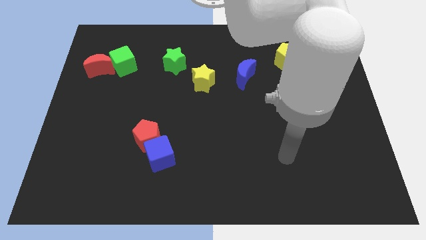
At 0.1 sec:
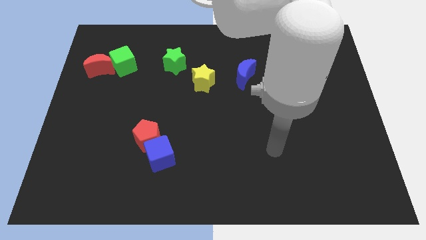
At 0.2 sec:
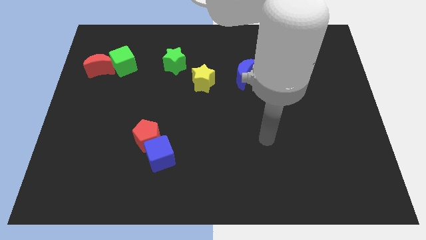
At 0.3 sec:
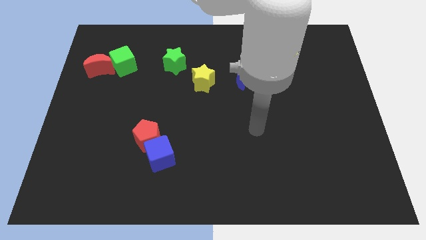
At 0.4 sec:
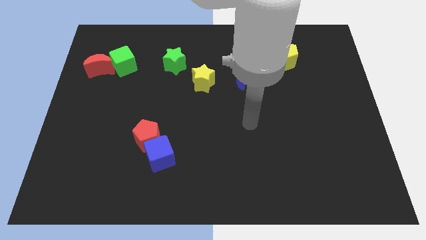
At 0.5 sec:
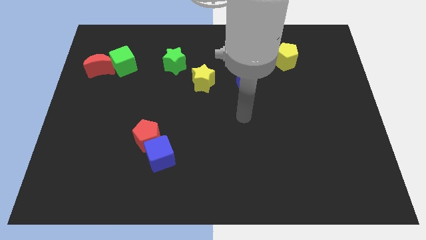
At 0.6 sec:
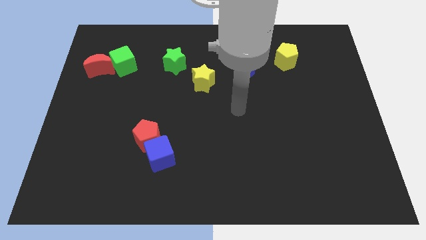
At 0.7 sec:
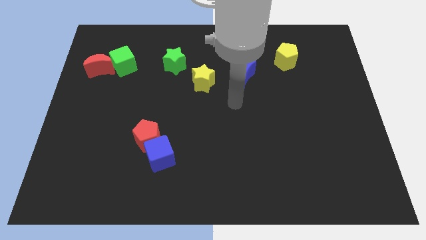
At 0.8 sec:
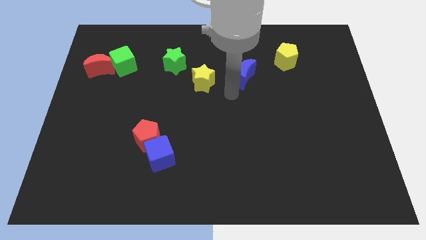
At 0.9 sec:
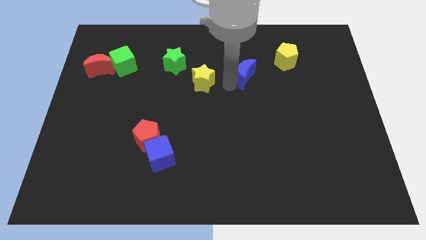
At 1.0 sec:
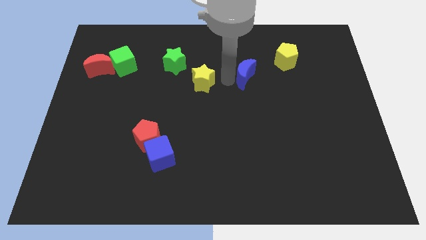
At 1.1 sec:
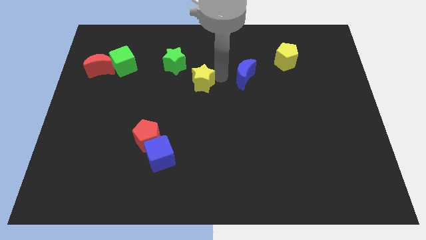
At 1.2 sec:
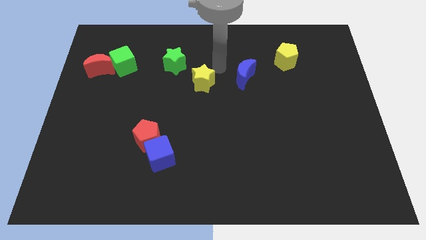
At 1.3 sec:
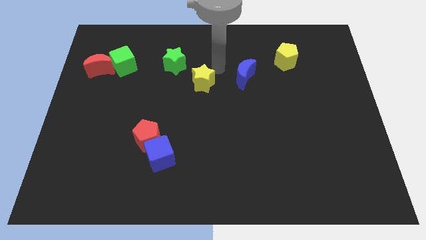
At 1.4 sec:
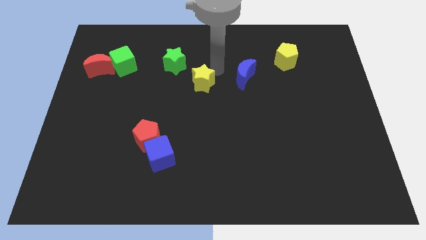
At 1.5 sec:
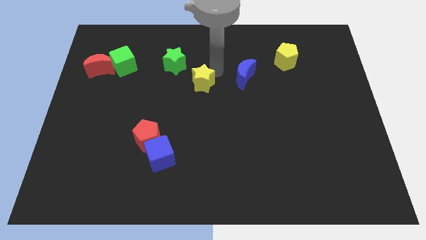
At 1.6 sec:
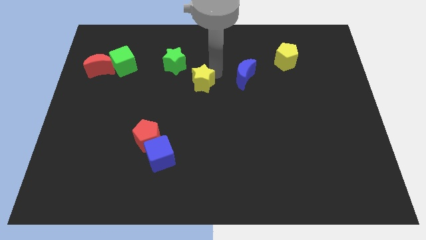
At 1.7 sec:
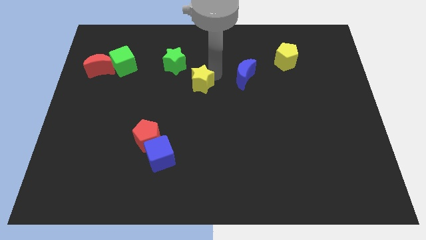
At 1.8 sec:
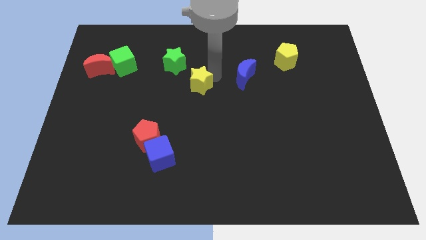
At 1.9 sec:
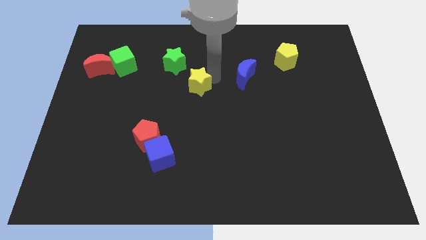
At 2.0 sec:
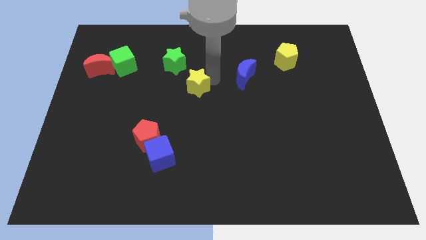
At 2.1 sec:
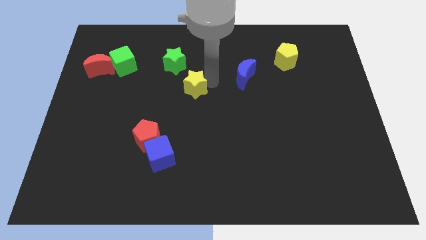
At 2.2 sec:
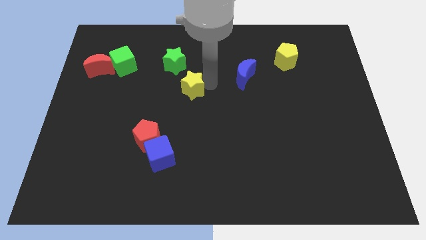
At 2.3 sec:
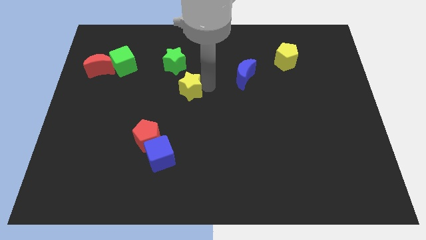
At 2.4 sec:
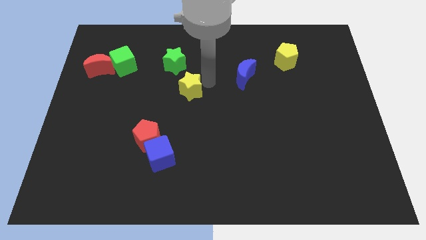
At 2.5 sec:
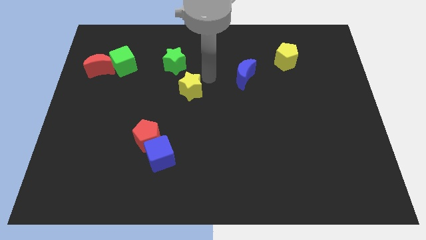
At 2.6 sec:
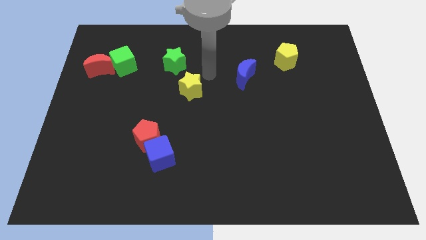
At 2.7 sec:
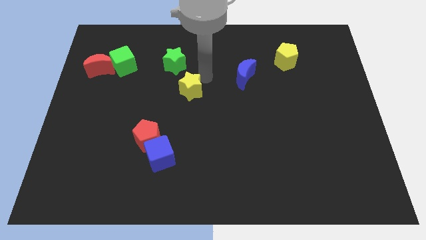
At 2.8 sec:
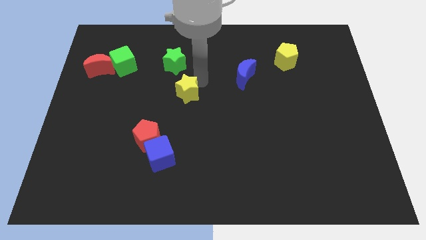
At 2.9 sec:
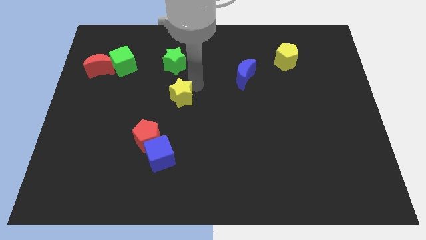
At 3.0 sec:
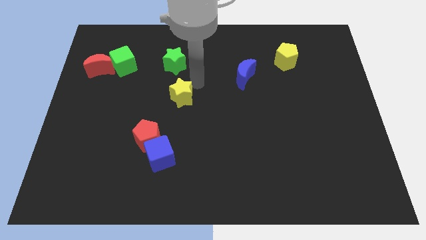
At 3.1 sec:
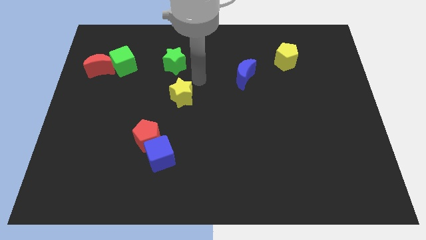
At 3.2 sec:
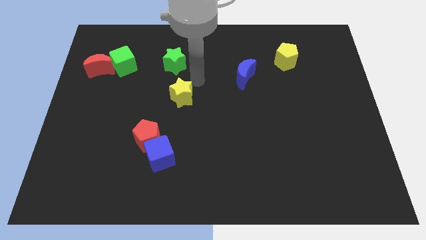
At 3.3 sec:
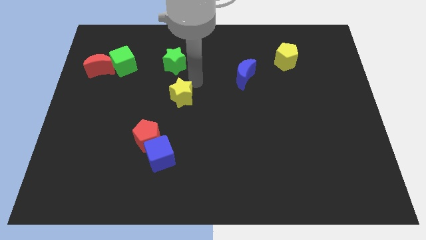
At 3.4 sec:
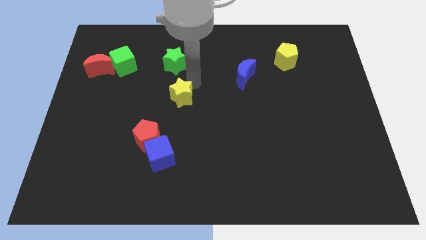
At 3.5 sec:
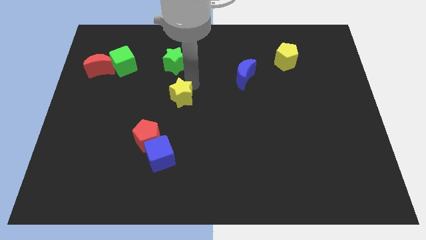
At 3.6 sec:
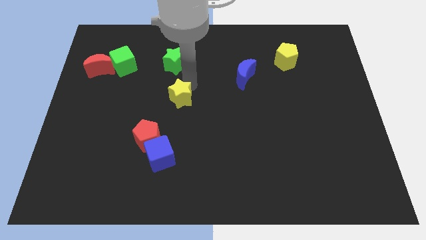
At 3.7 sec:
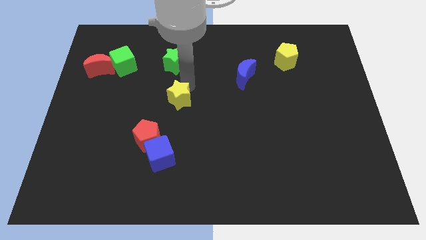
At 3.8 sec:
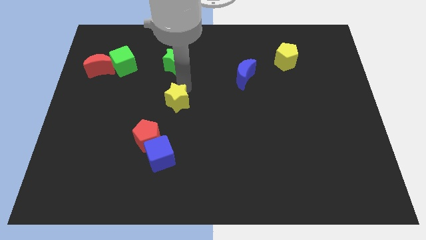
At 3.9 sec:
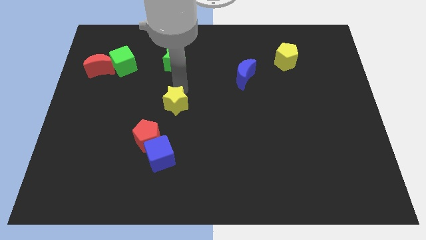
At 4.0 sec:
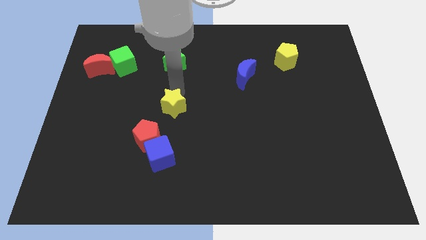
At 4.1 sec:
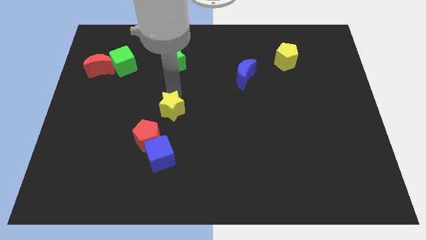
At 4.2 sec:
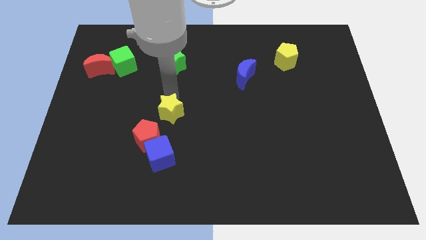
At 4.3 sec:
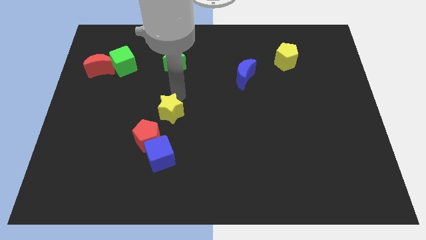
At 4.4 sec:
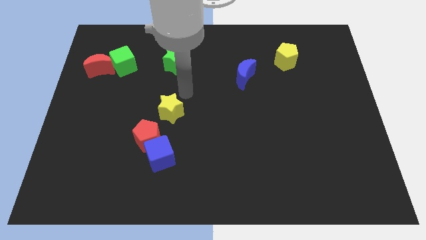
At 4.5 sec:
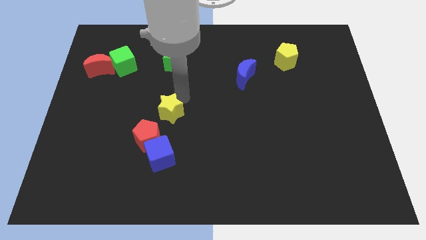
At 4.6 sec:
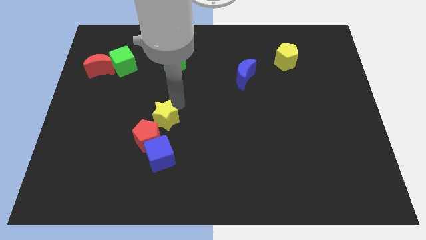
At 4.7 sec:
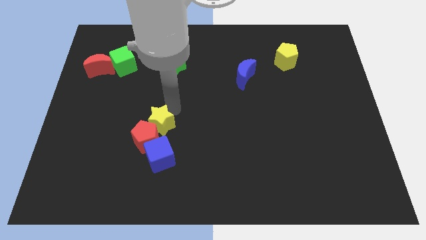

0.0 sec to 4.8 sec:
move the yellow star to the red pentagon

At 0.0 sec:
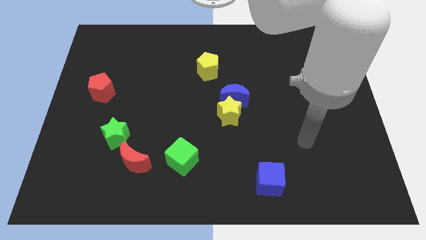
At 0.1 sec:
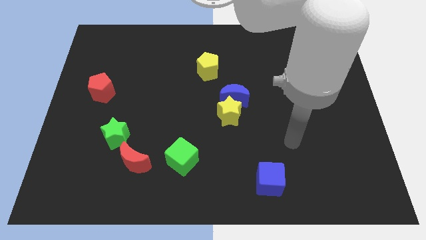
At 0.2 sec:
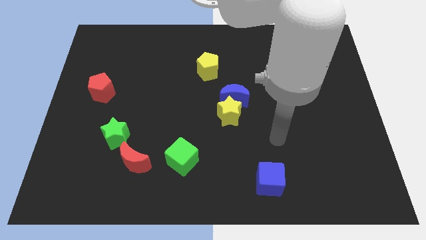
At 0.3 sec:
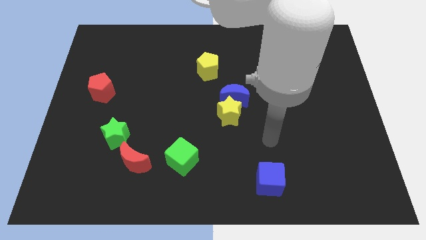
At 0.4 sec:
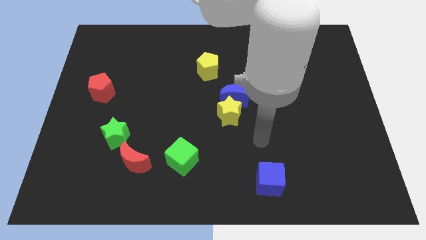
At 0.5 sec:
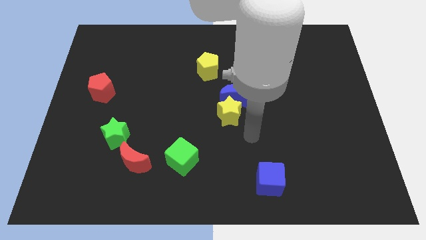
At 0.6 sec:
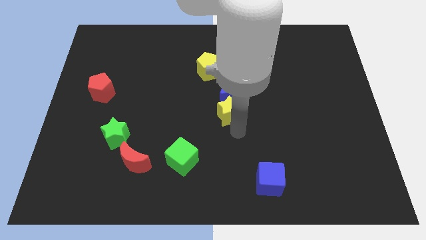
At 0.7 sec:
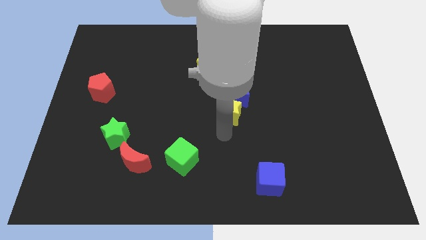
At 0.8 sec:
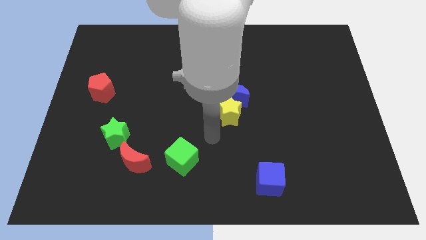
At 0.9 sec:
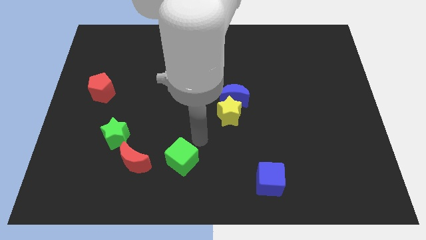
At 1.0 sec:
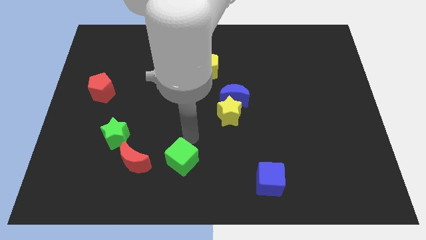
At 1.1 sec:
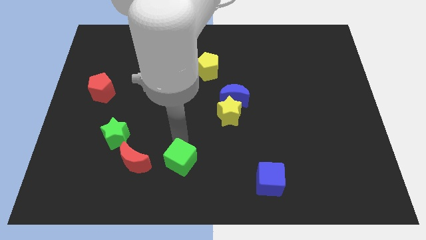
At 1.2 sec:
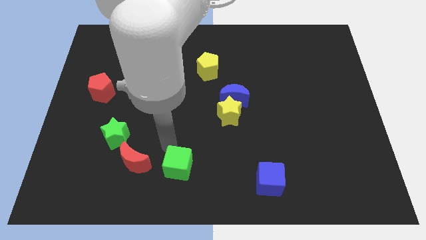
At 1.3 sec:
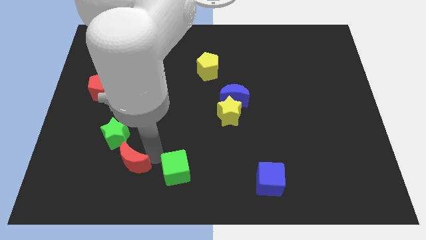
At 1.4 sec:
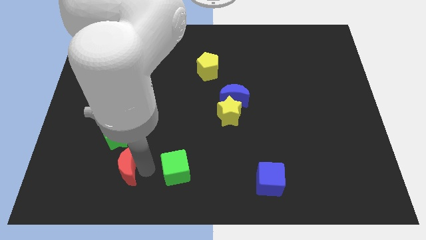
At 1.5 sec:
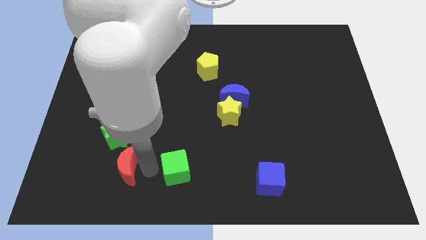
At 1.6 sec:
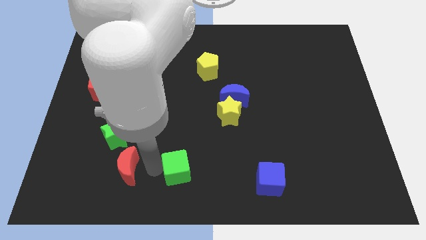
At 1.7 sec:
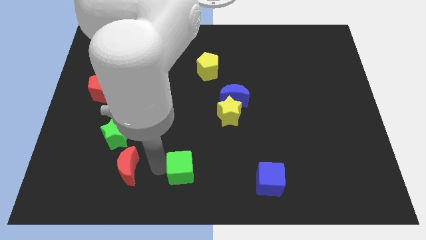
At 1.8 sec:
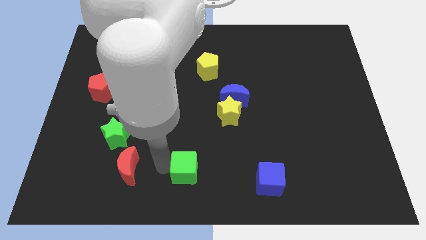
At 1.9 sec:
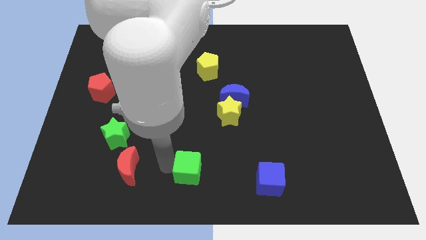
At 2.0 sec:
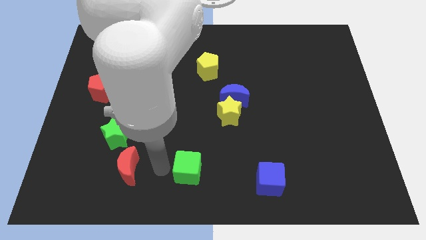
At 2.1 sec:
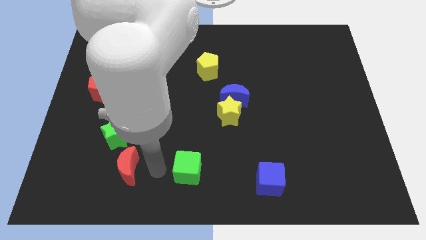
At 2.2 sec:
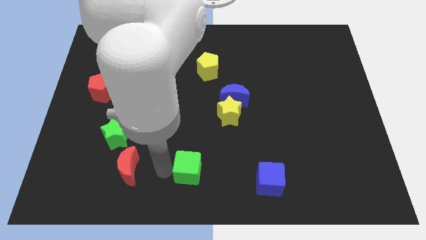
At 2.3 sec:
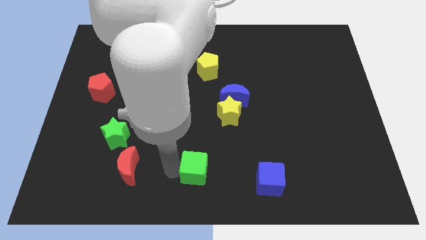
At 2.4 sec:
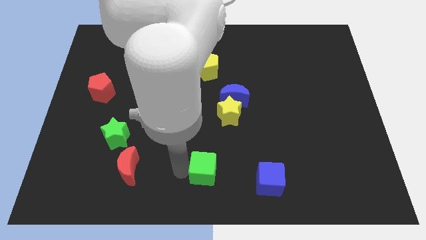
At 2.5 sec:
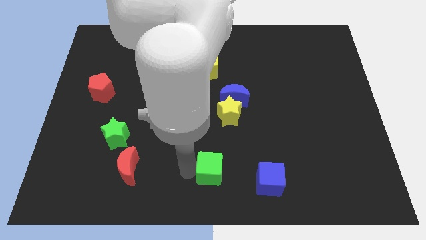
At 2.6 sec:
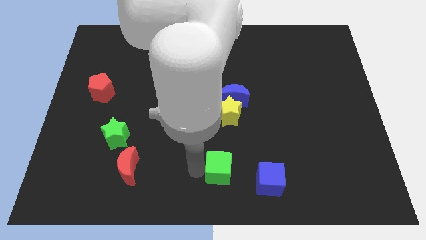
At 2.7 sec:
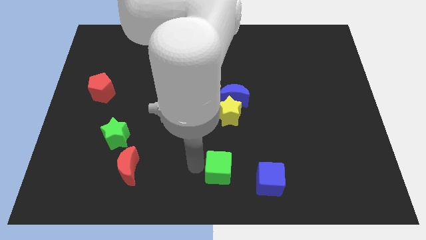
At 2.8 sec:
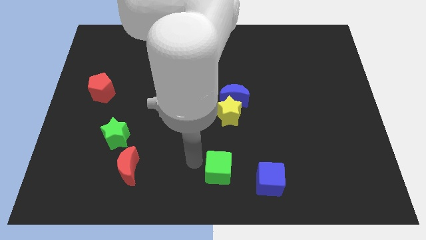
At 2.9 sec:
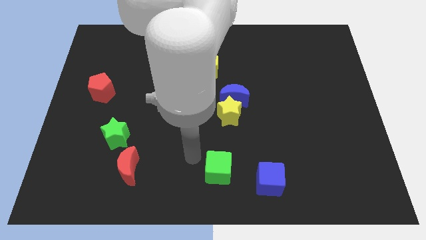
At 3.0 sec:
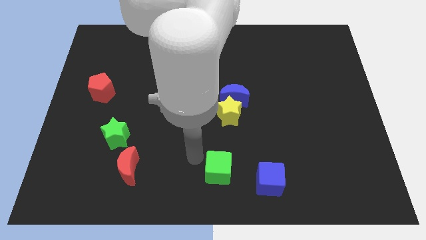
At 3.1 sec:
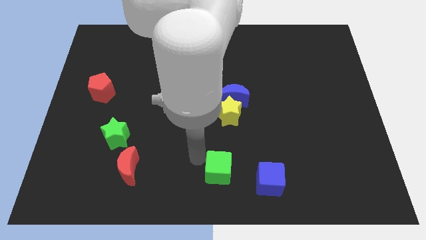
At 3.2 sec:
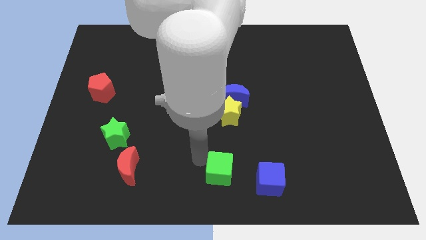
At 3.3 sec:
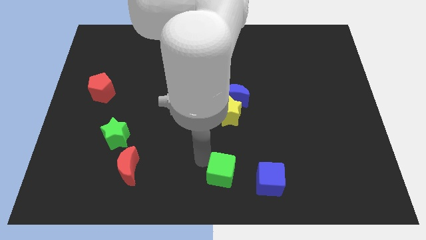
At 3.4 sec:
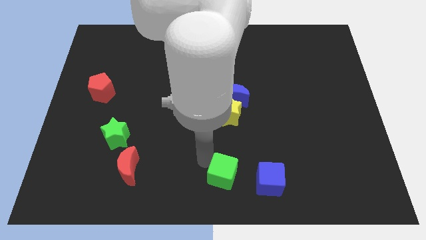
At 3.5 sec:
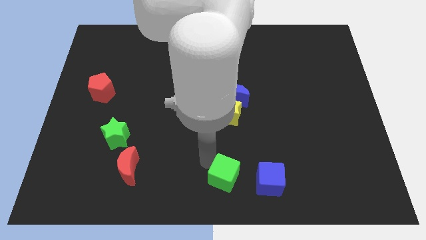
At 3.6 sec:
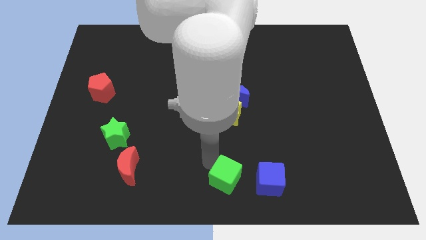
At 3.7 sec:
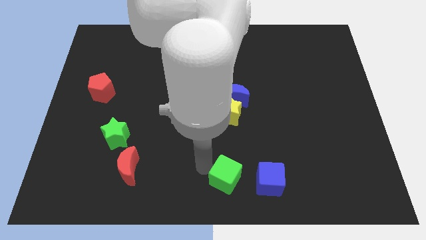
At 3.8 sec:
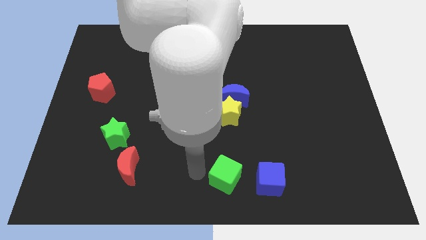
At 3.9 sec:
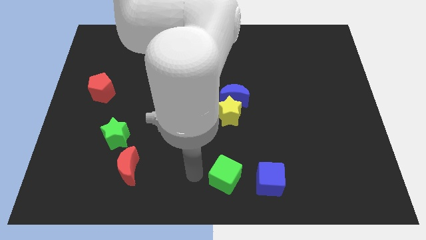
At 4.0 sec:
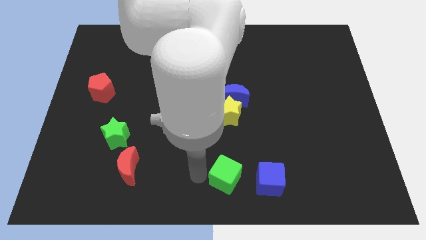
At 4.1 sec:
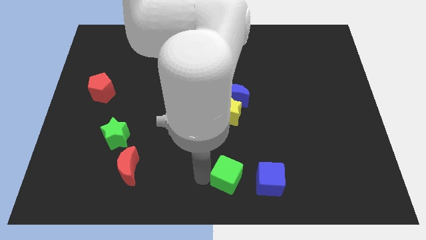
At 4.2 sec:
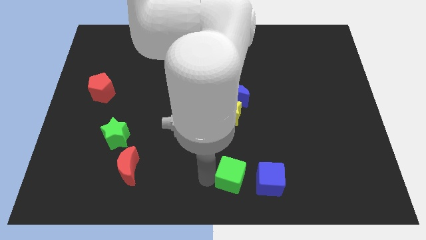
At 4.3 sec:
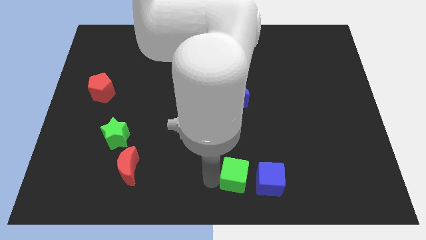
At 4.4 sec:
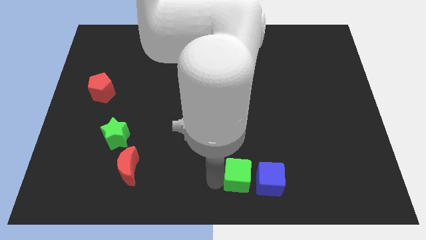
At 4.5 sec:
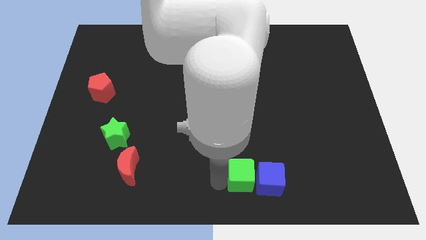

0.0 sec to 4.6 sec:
move the green cube close to the blue cube
